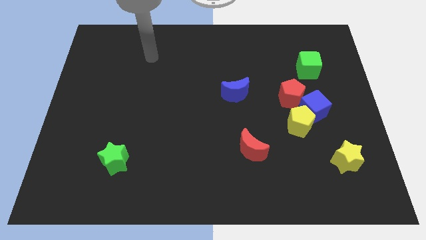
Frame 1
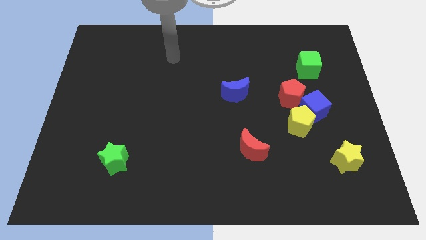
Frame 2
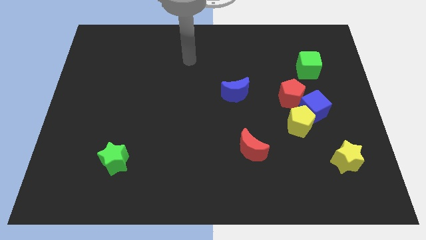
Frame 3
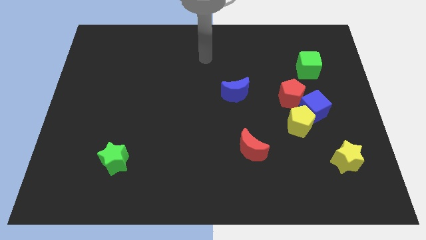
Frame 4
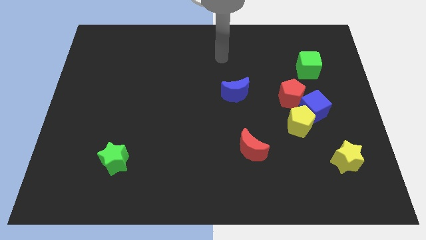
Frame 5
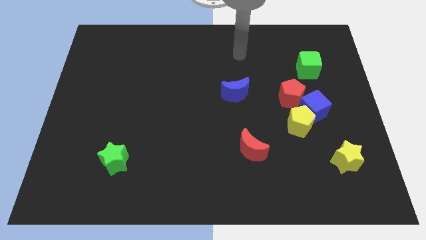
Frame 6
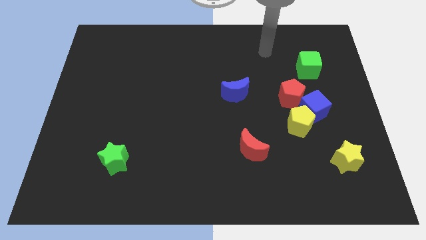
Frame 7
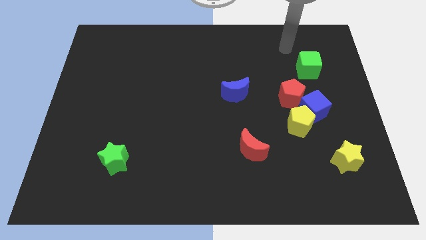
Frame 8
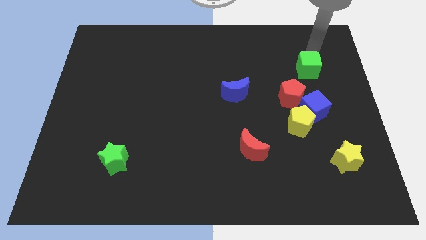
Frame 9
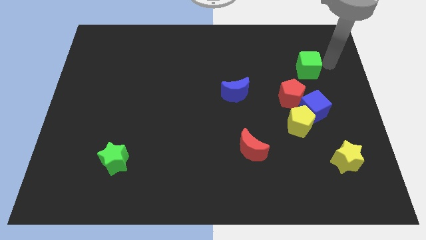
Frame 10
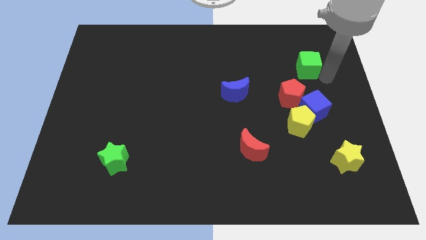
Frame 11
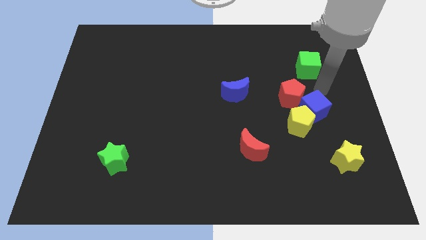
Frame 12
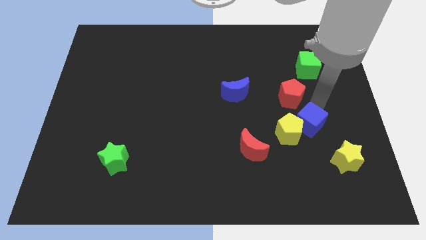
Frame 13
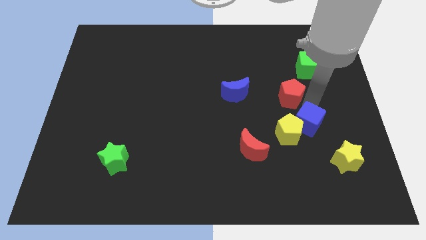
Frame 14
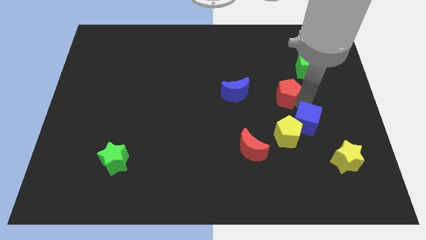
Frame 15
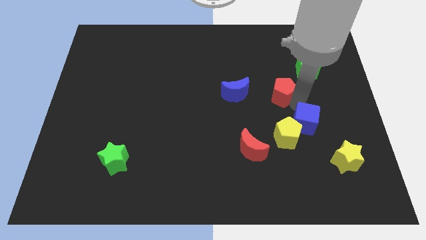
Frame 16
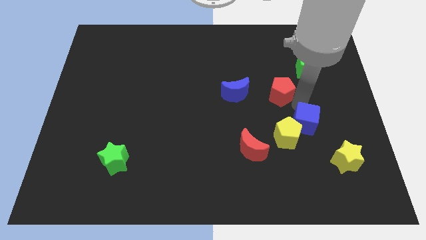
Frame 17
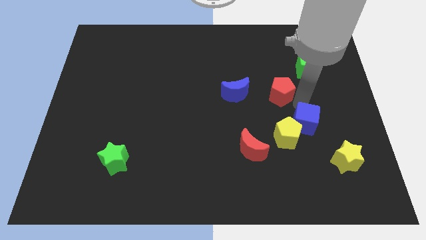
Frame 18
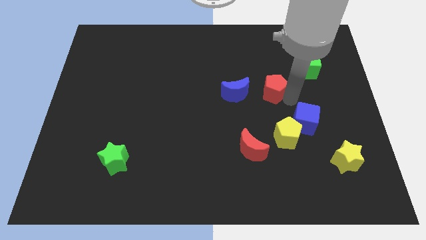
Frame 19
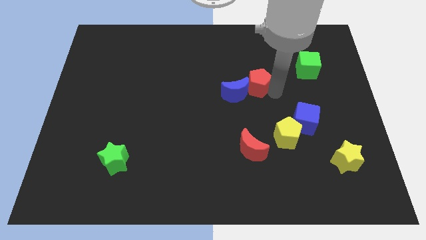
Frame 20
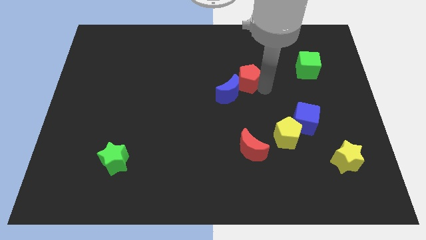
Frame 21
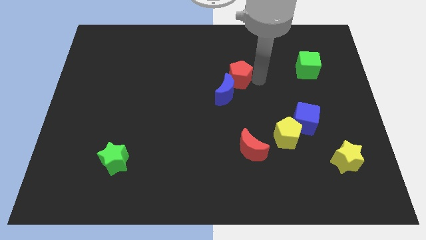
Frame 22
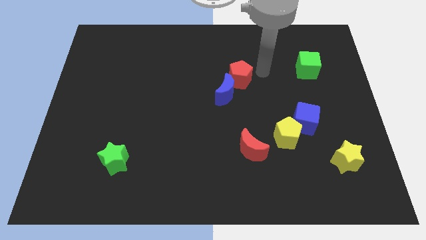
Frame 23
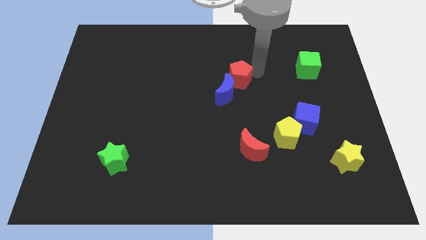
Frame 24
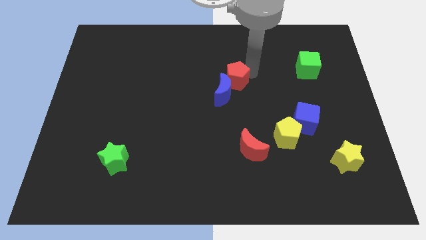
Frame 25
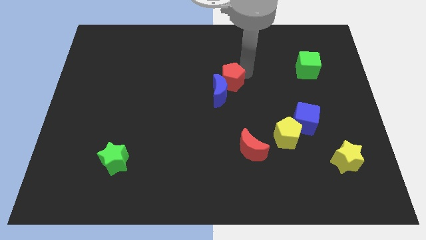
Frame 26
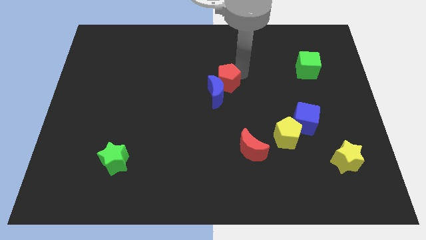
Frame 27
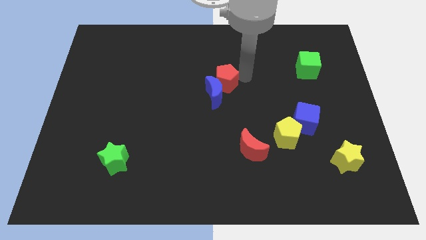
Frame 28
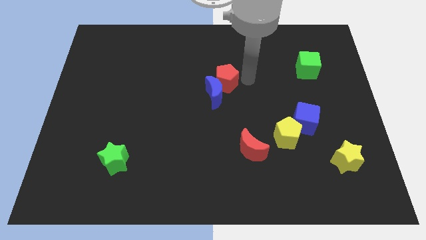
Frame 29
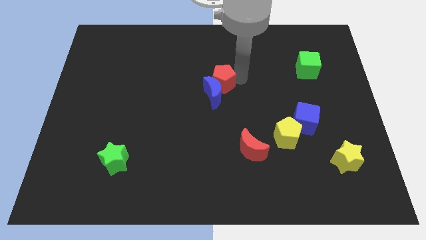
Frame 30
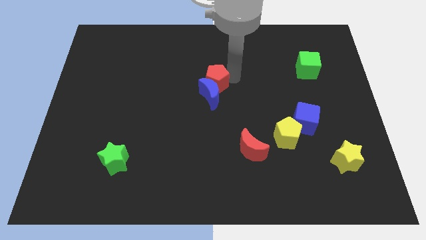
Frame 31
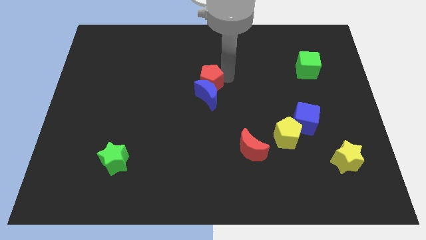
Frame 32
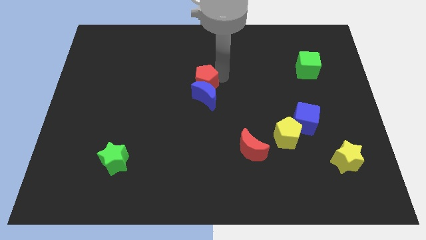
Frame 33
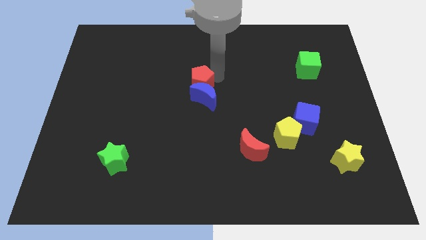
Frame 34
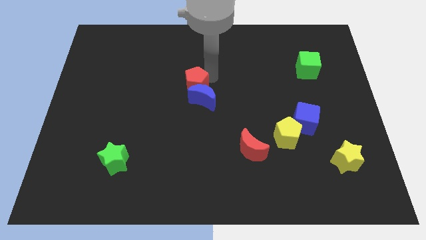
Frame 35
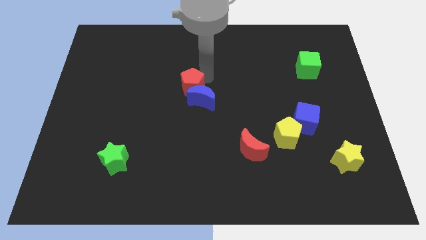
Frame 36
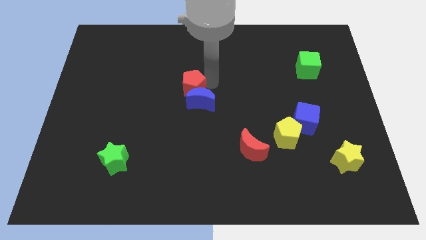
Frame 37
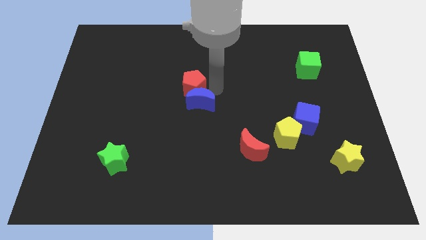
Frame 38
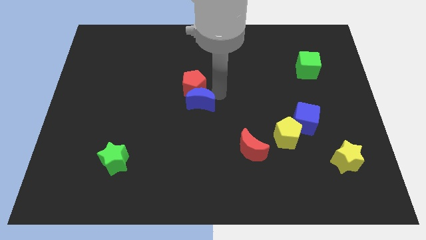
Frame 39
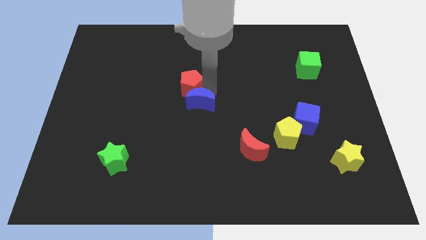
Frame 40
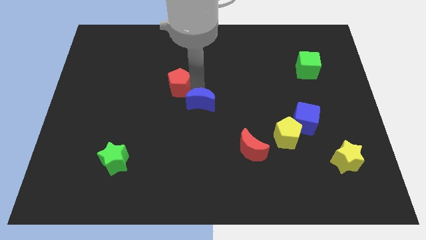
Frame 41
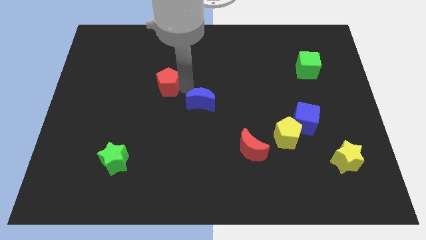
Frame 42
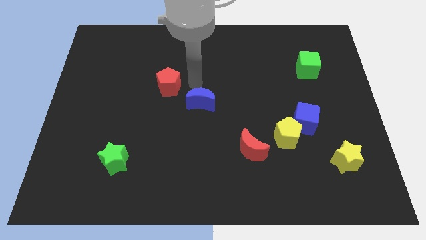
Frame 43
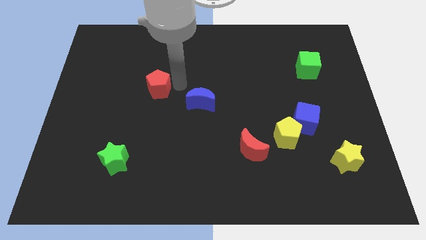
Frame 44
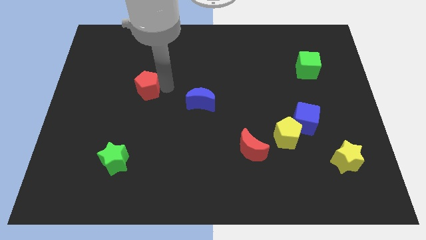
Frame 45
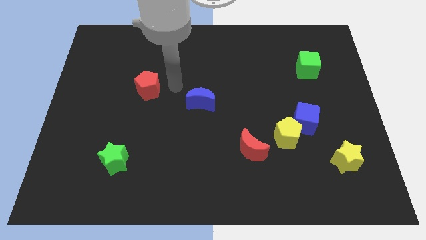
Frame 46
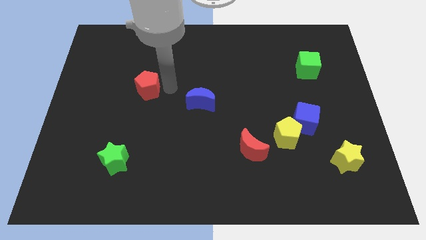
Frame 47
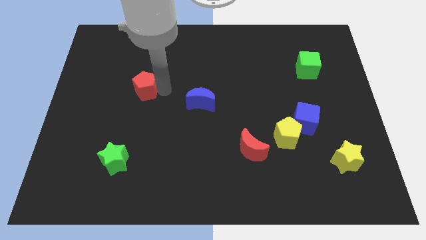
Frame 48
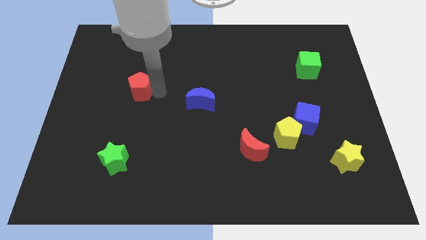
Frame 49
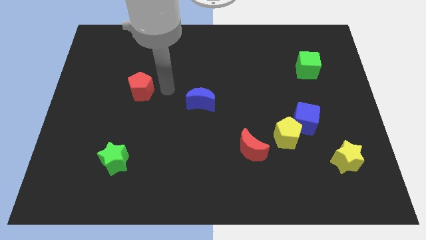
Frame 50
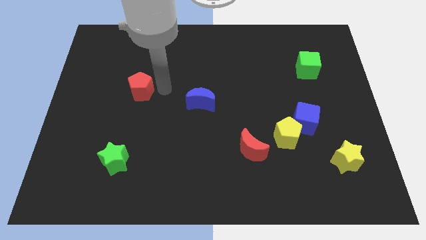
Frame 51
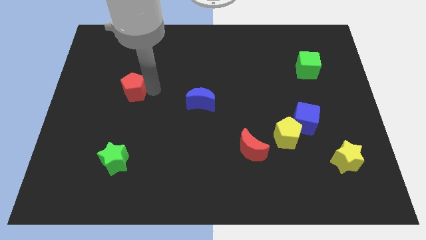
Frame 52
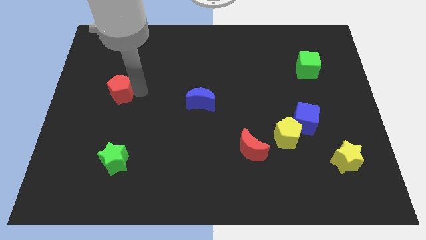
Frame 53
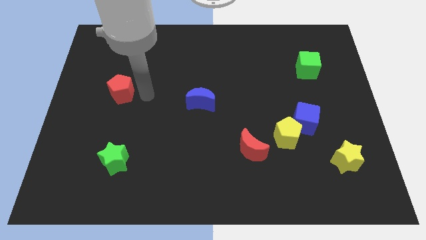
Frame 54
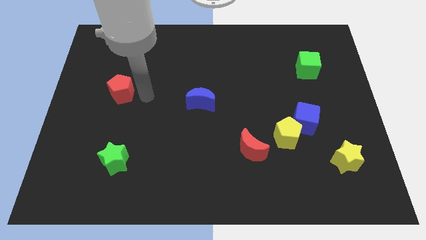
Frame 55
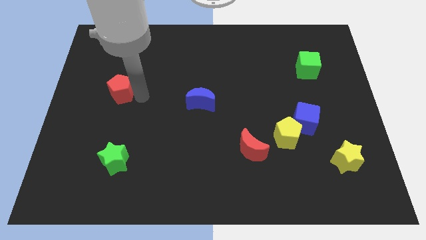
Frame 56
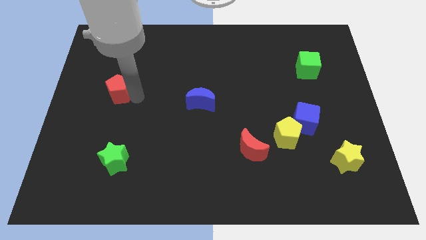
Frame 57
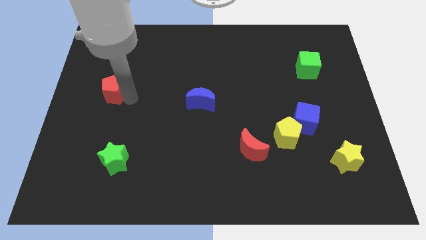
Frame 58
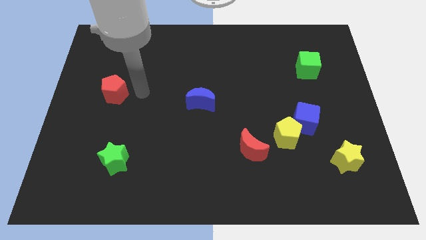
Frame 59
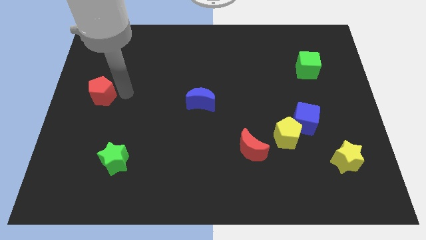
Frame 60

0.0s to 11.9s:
move the red pentagon to the center left
